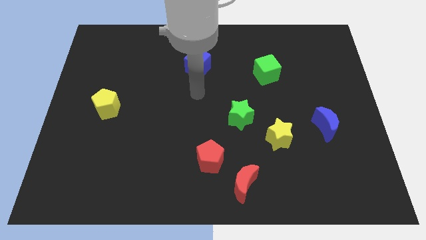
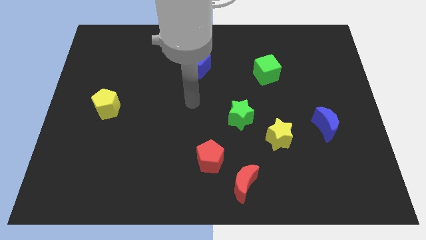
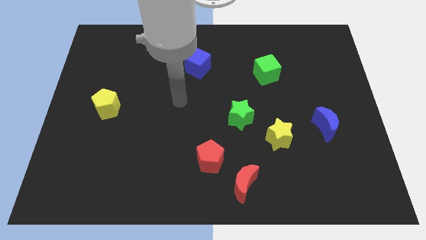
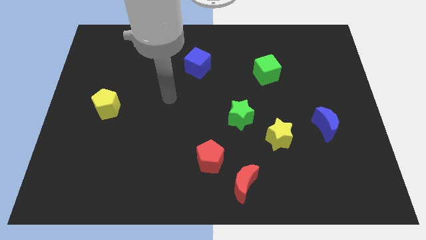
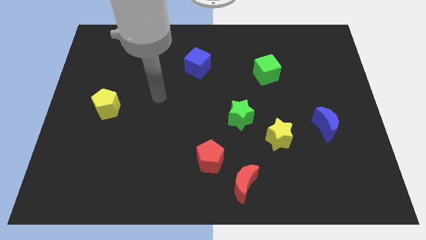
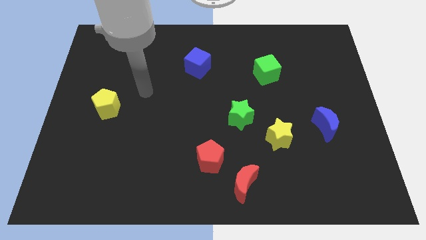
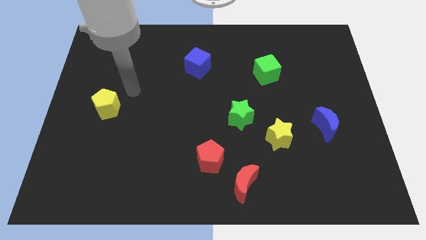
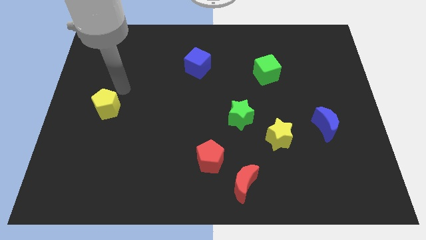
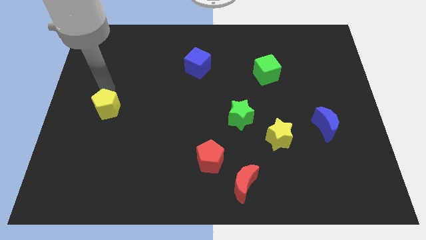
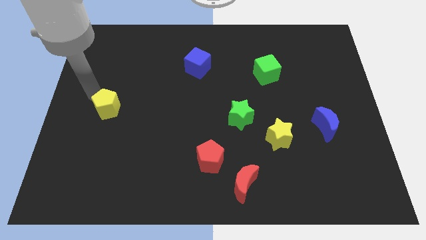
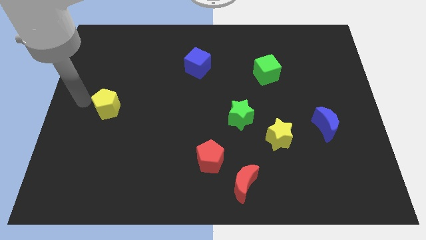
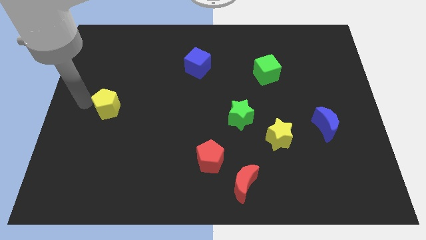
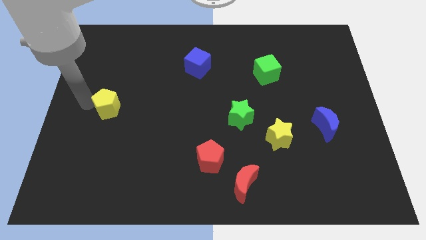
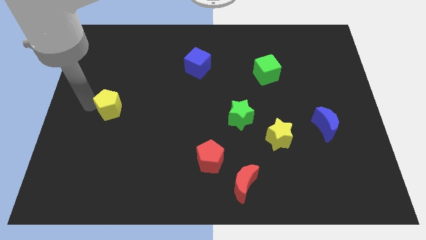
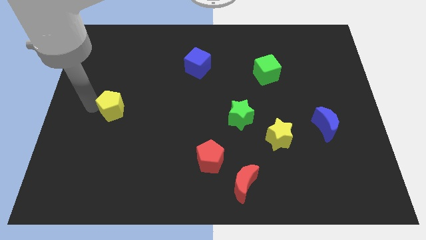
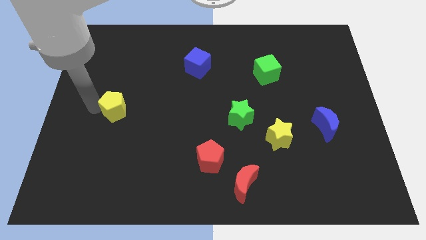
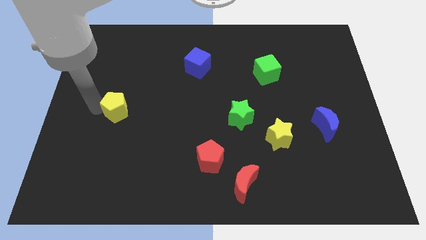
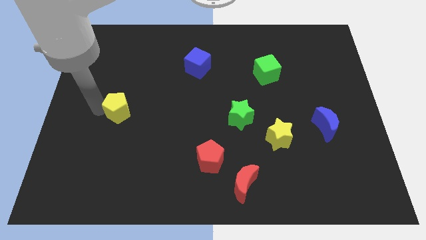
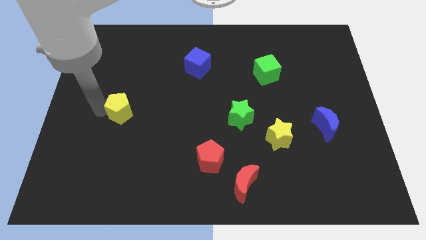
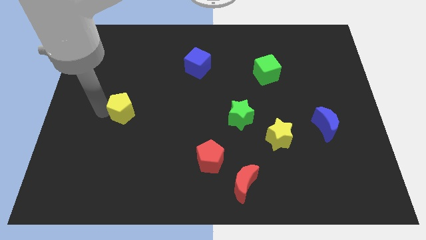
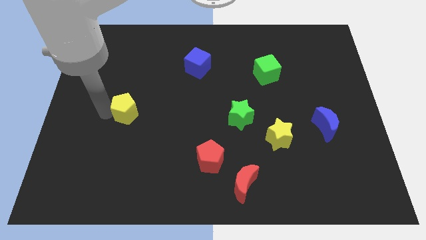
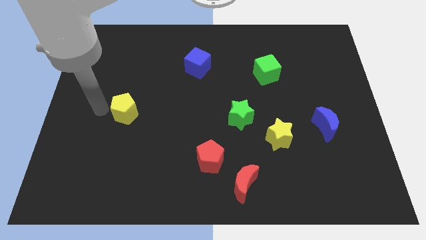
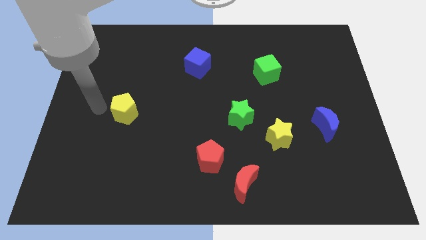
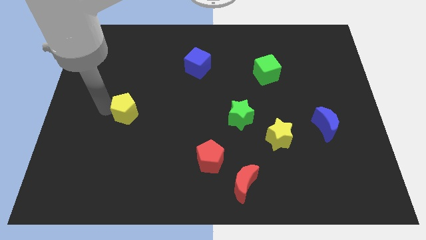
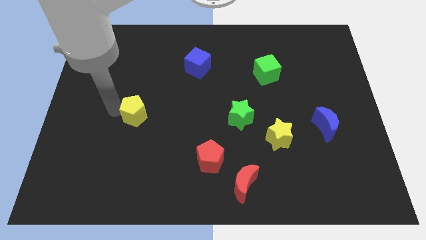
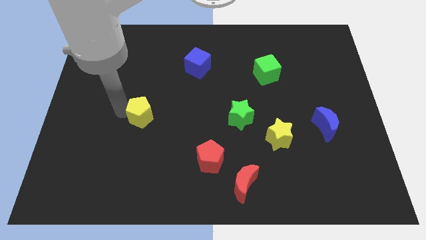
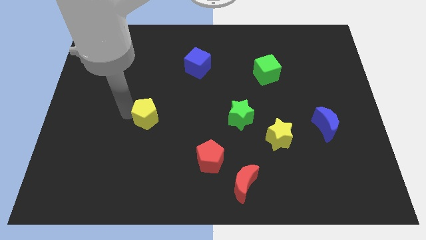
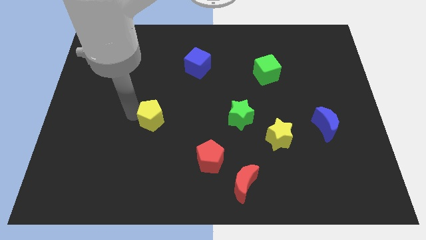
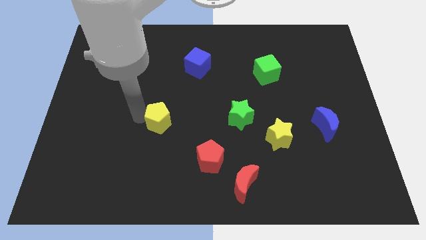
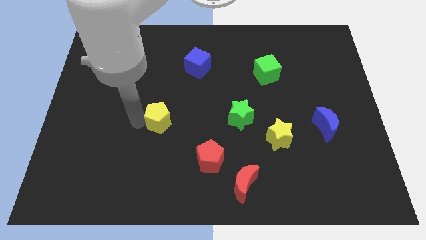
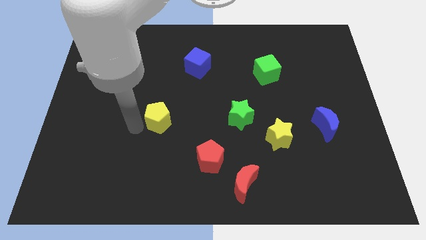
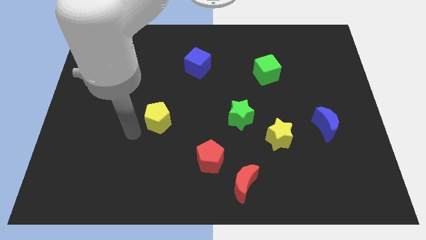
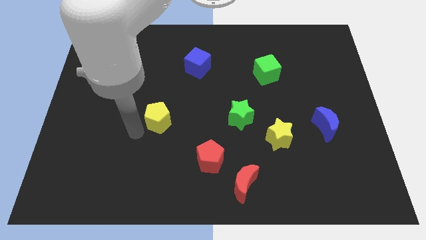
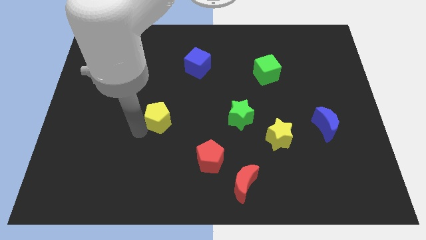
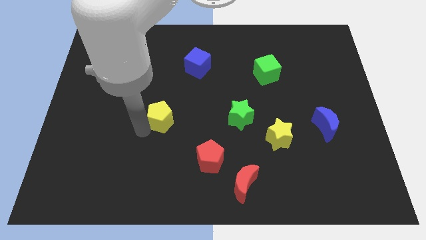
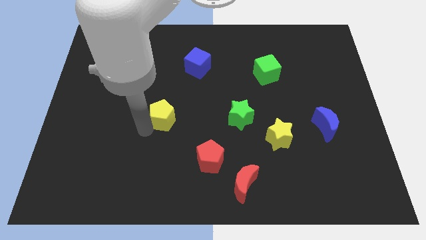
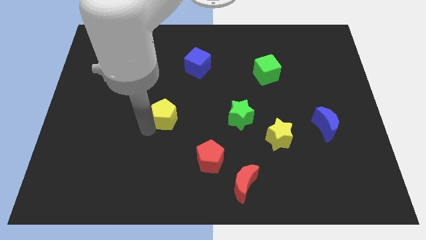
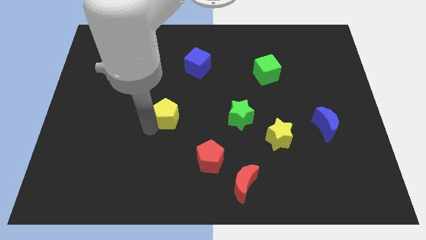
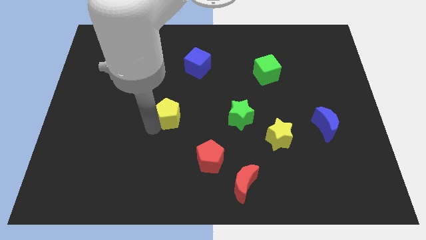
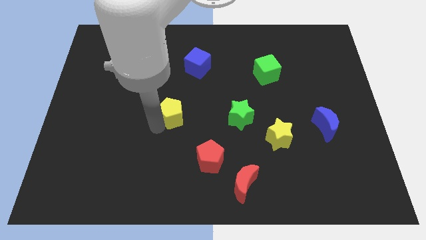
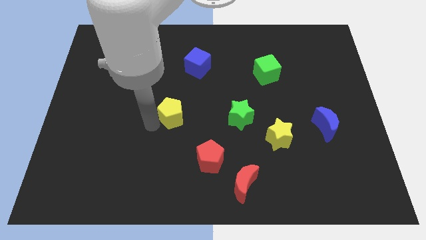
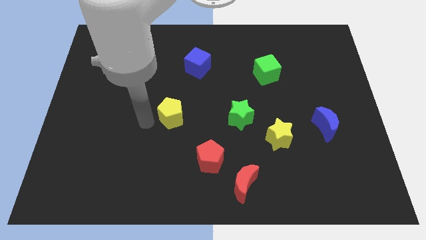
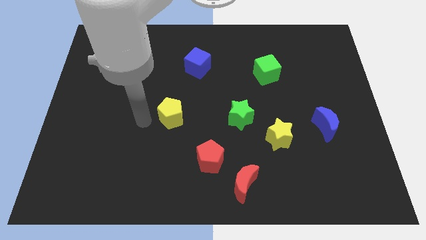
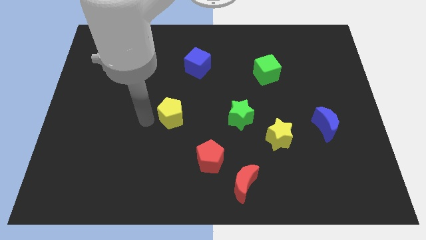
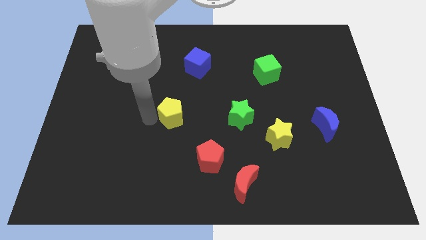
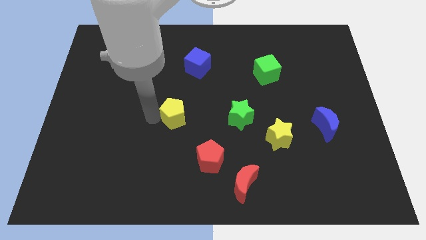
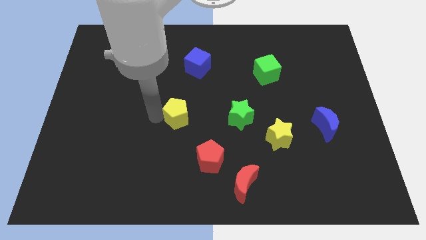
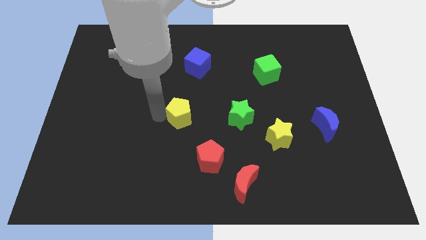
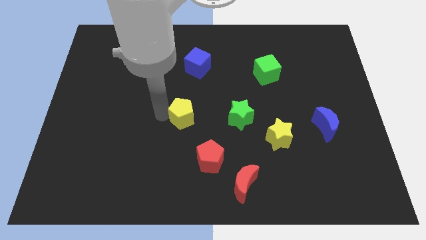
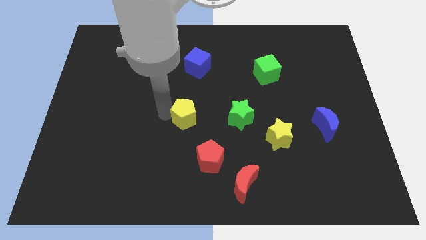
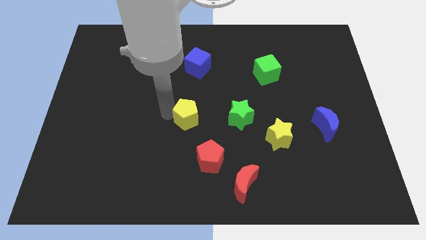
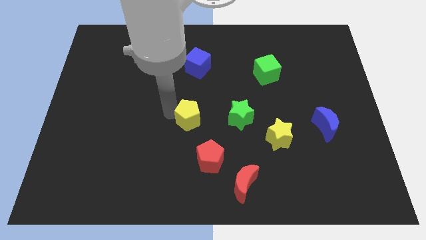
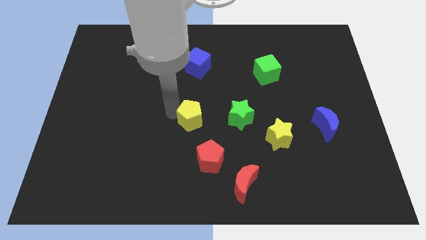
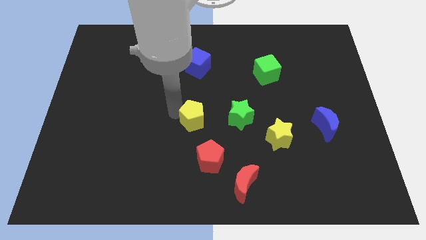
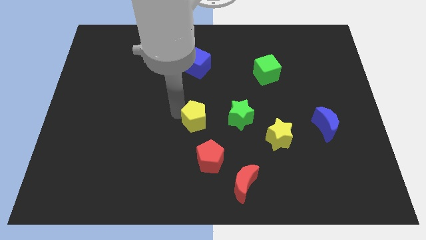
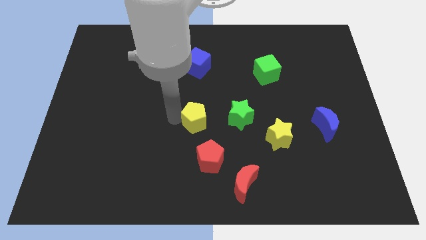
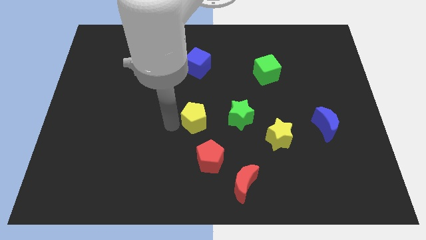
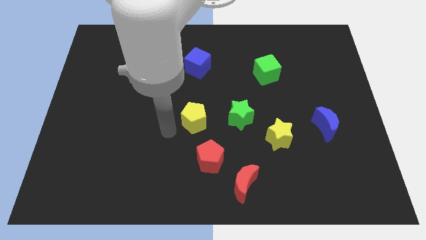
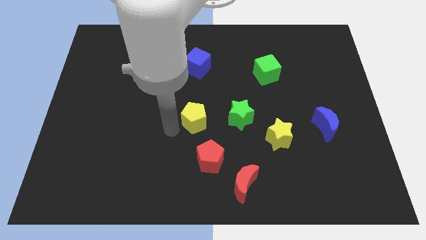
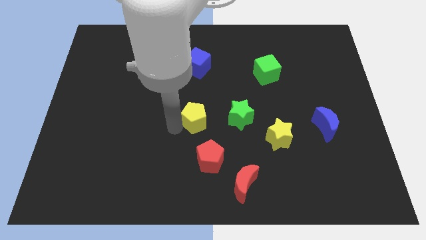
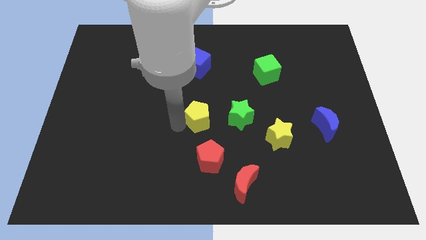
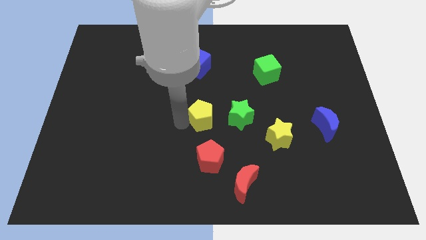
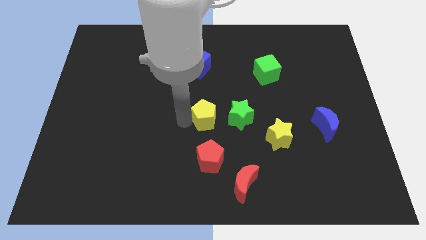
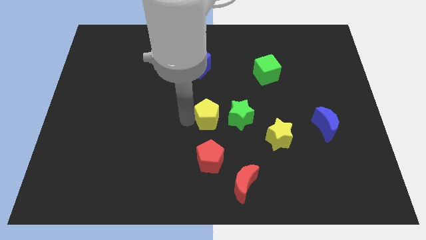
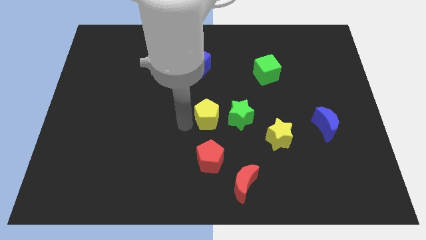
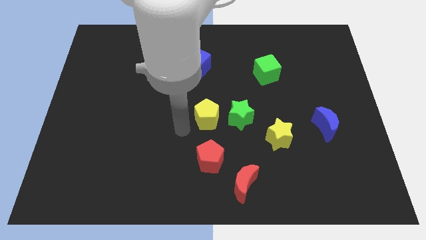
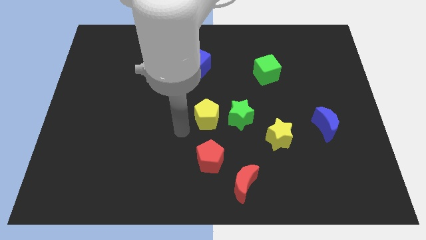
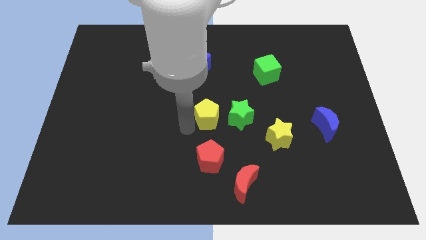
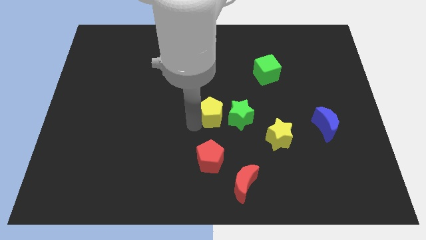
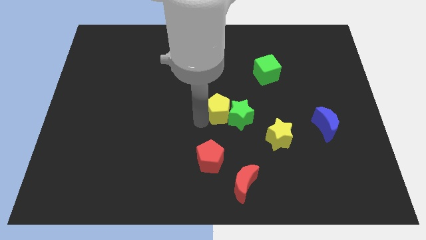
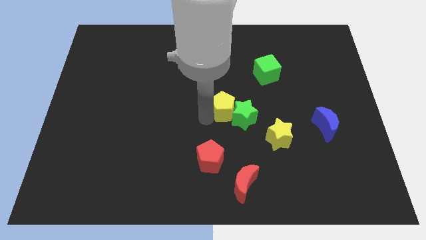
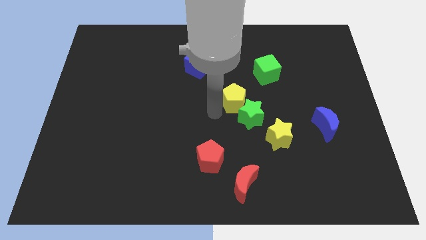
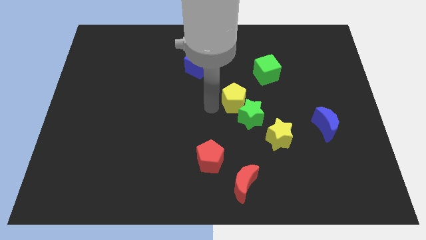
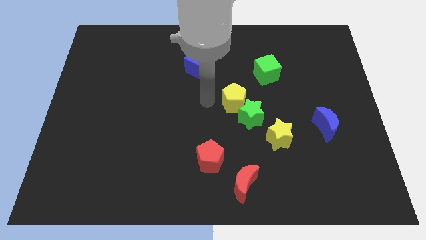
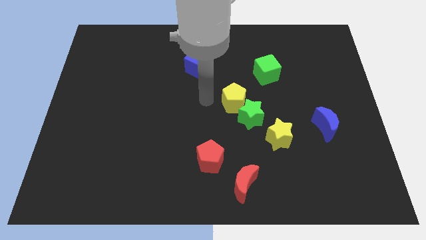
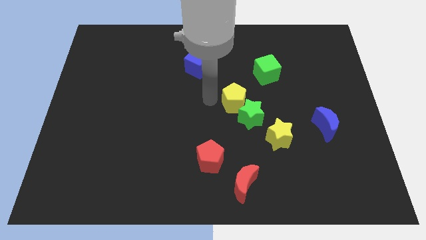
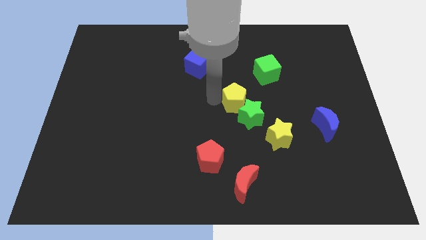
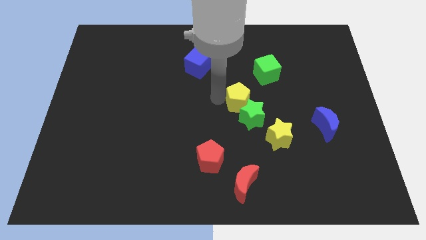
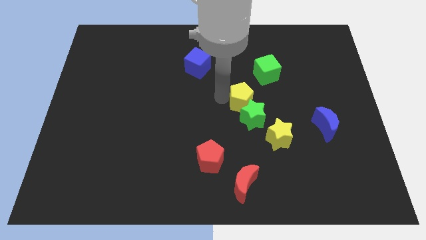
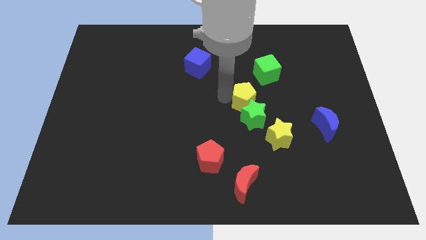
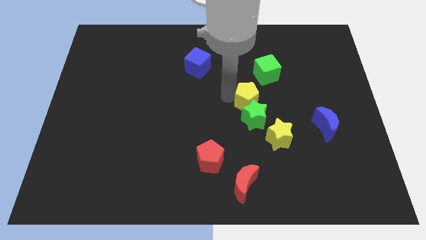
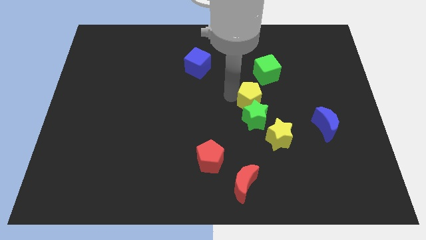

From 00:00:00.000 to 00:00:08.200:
put the yellow pentagon below the green cube
